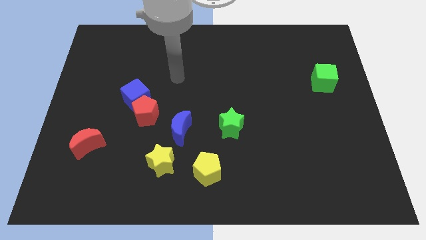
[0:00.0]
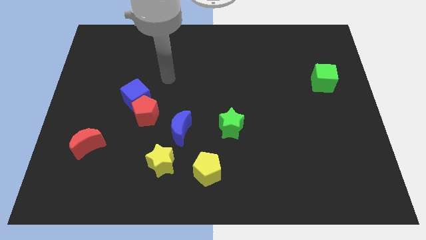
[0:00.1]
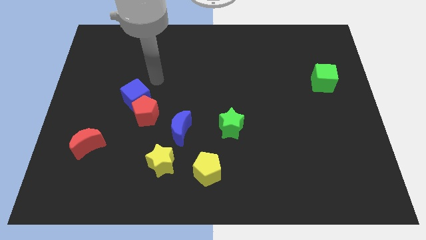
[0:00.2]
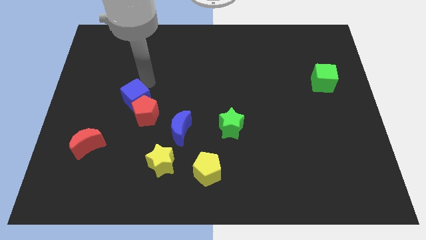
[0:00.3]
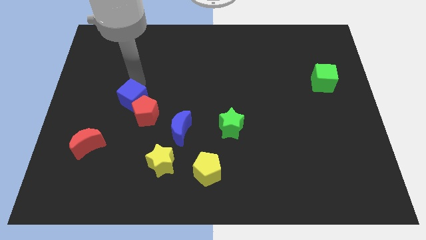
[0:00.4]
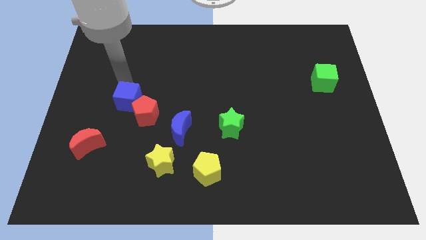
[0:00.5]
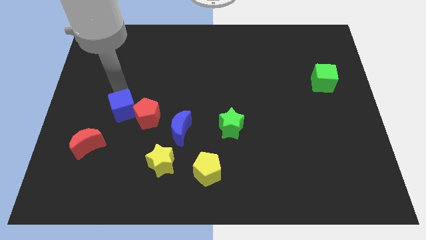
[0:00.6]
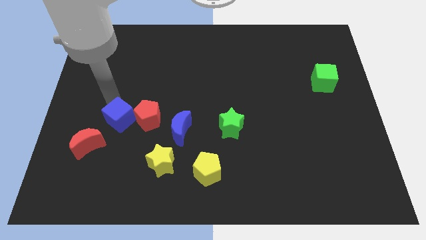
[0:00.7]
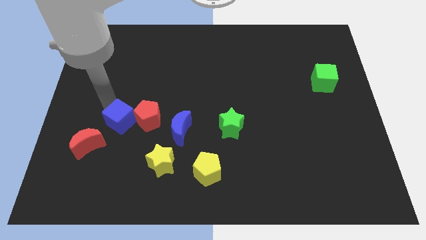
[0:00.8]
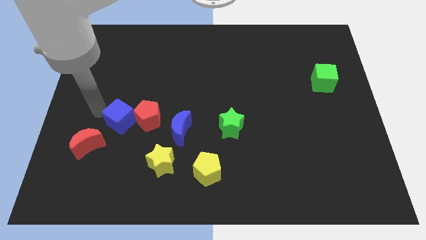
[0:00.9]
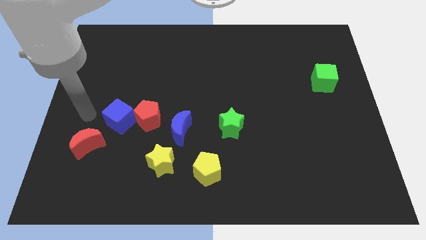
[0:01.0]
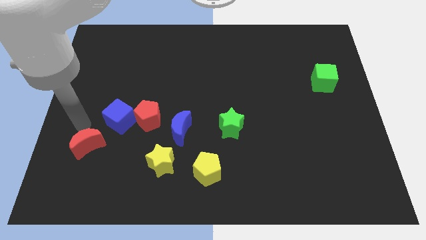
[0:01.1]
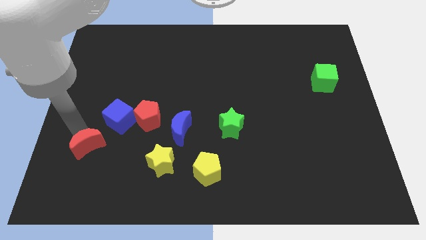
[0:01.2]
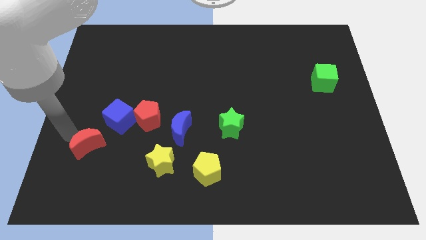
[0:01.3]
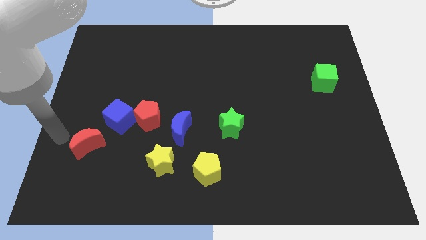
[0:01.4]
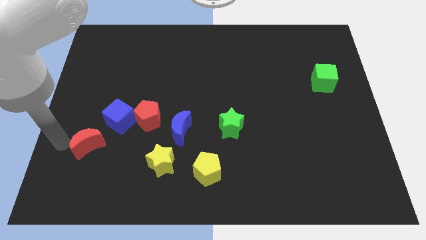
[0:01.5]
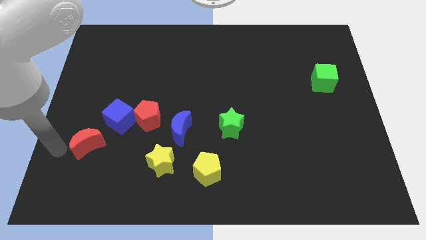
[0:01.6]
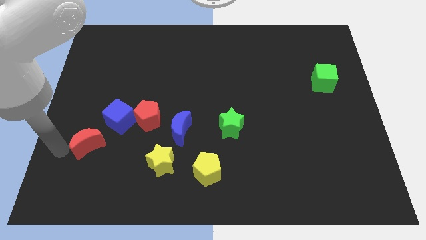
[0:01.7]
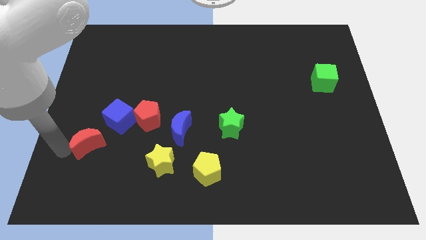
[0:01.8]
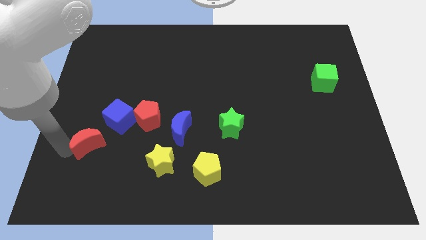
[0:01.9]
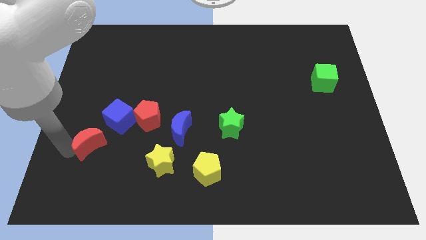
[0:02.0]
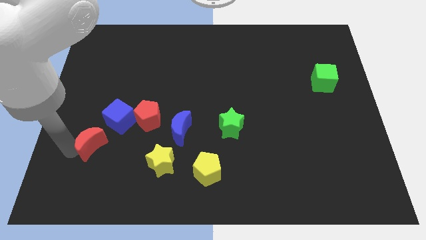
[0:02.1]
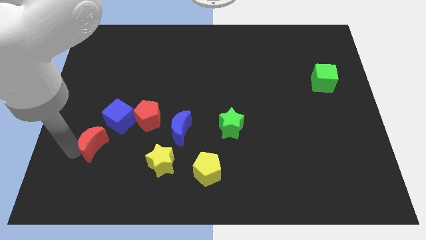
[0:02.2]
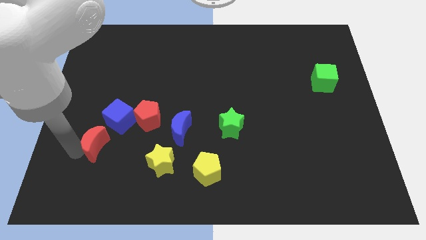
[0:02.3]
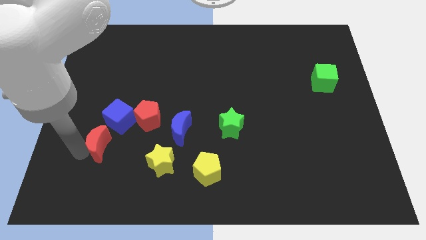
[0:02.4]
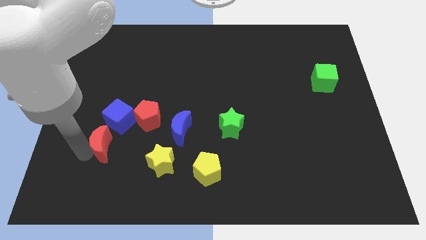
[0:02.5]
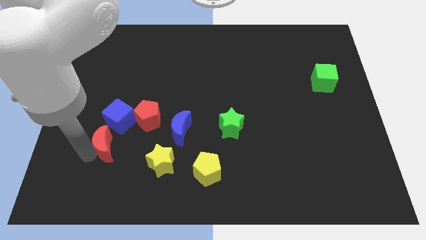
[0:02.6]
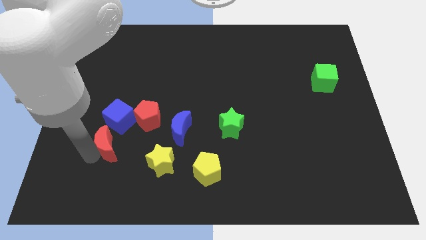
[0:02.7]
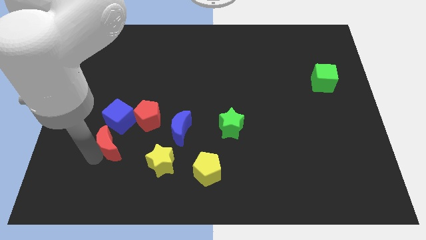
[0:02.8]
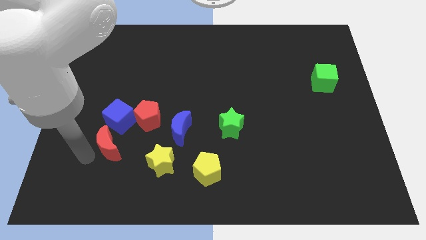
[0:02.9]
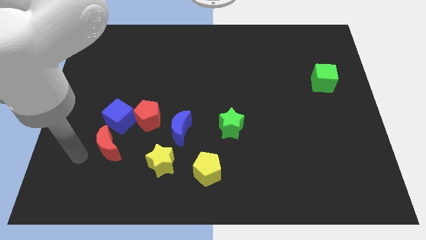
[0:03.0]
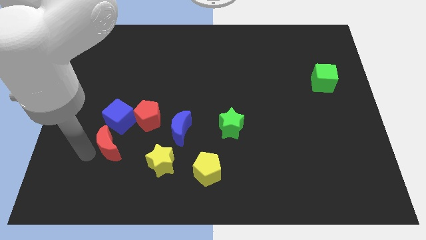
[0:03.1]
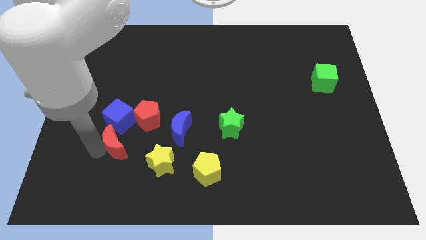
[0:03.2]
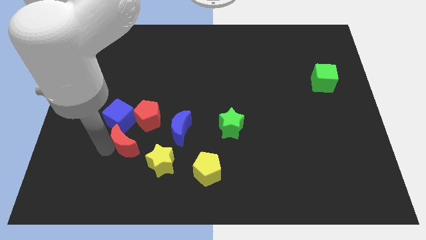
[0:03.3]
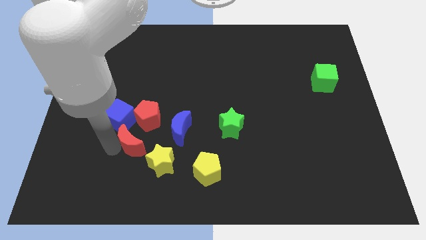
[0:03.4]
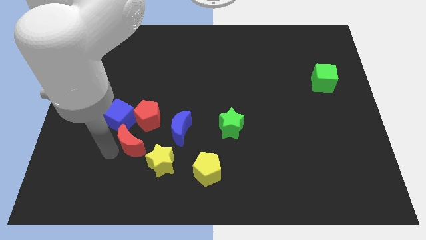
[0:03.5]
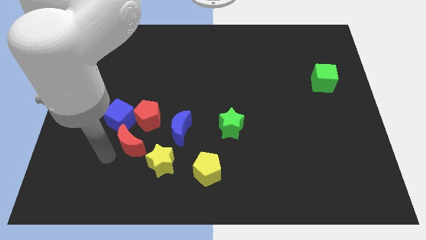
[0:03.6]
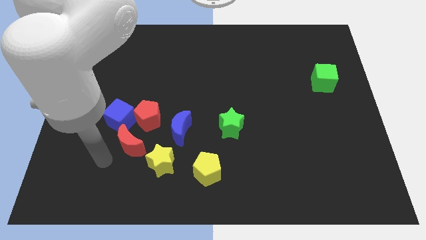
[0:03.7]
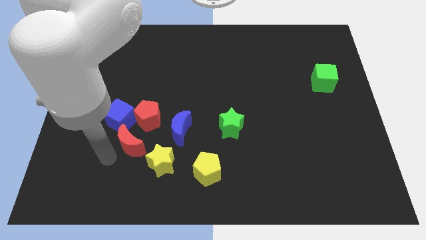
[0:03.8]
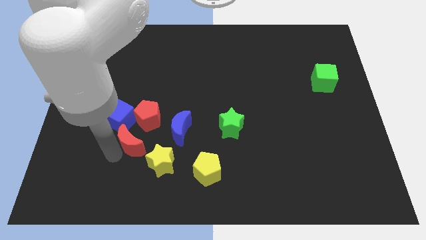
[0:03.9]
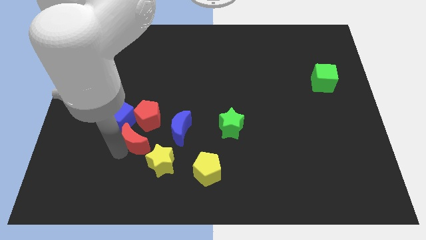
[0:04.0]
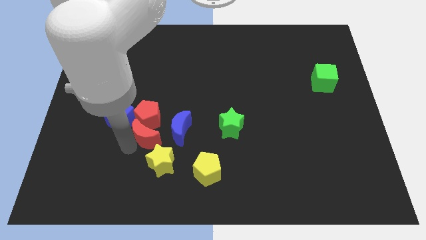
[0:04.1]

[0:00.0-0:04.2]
slide the red moon to the top of the yellow star

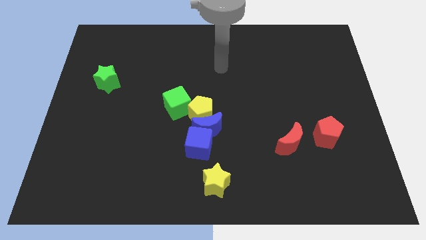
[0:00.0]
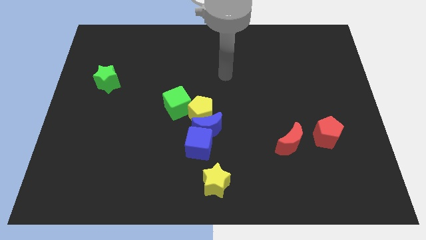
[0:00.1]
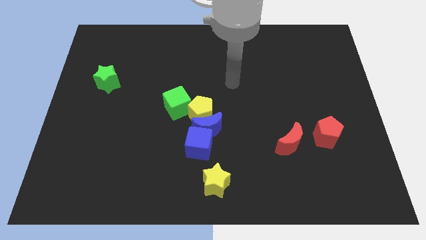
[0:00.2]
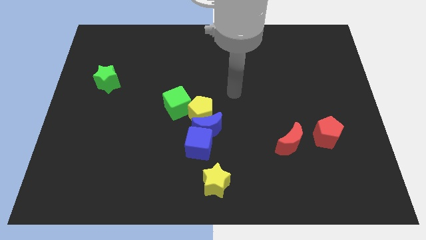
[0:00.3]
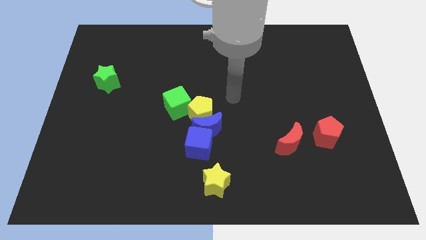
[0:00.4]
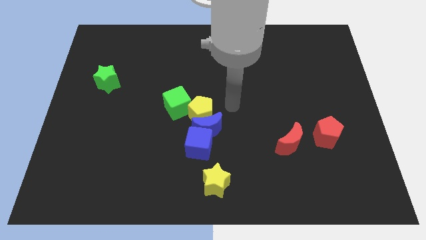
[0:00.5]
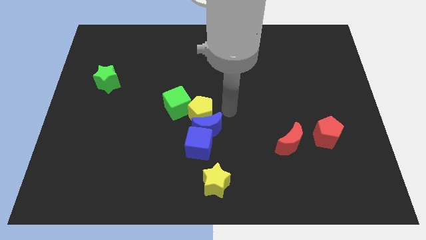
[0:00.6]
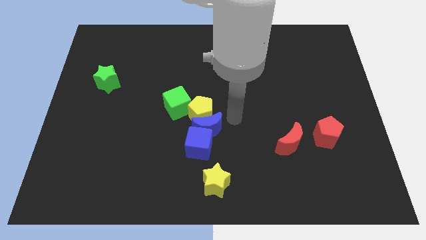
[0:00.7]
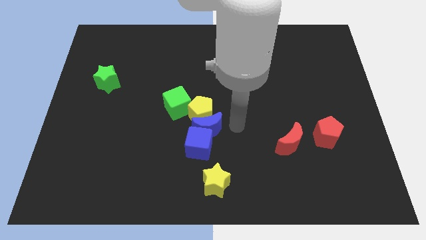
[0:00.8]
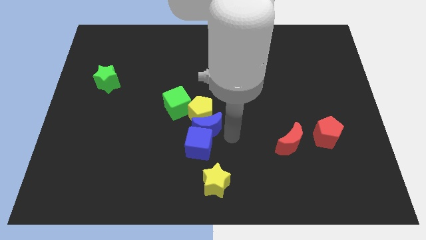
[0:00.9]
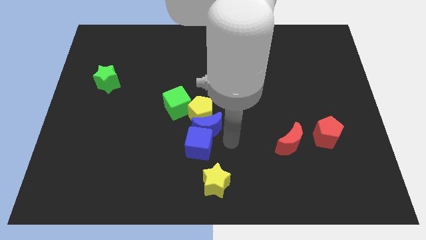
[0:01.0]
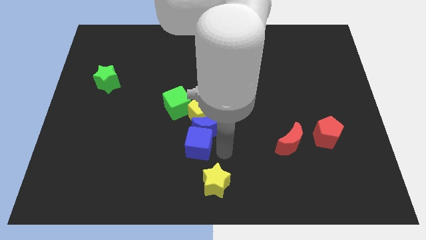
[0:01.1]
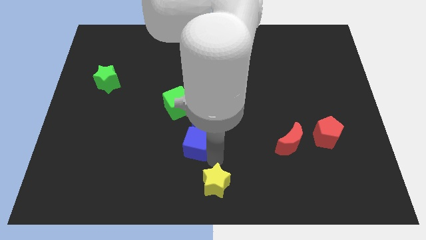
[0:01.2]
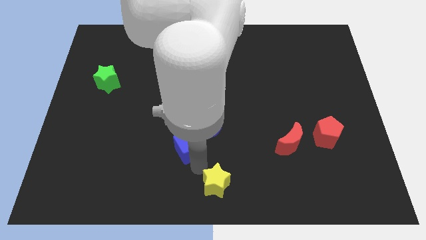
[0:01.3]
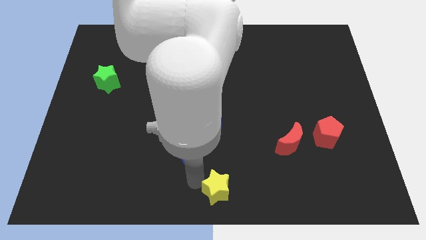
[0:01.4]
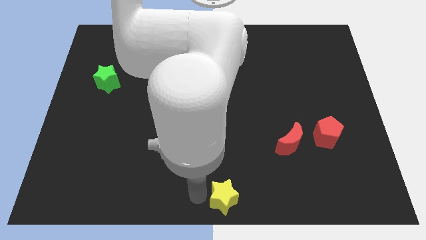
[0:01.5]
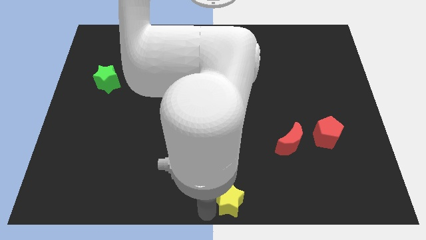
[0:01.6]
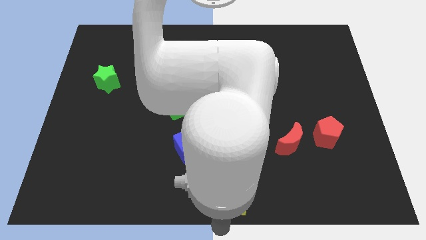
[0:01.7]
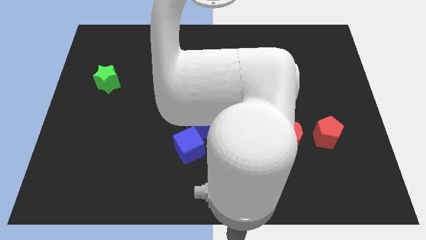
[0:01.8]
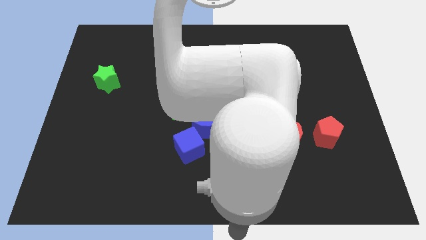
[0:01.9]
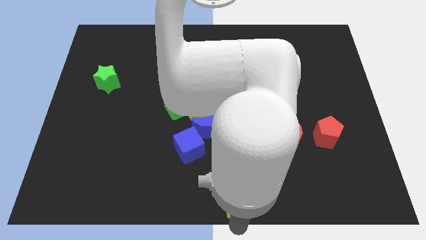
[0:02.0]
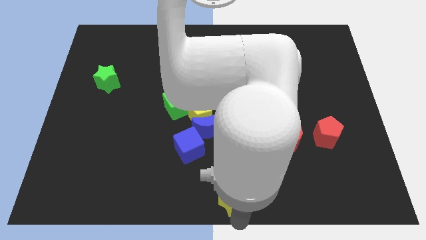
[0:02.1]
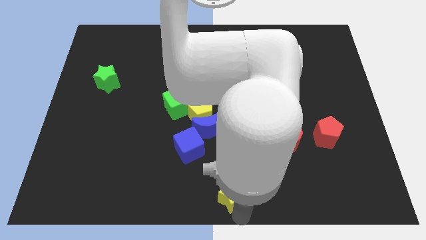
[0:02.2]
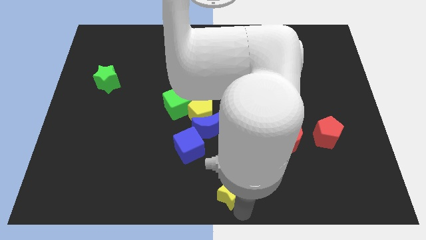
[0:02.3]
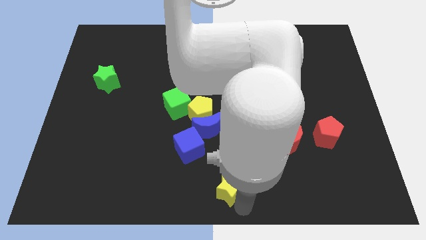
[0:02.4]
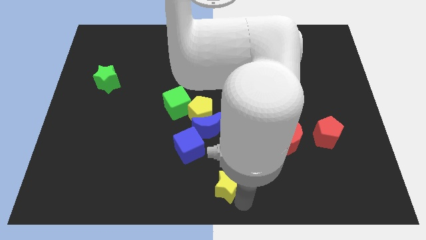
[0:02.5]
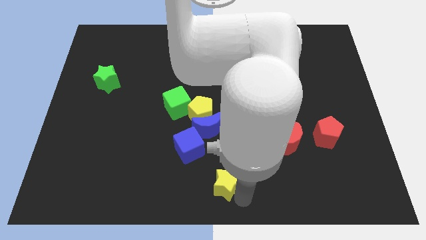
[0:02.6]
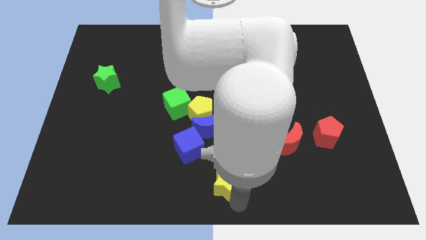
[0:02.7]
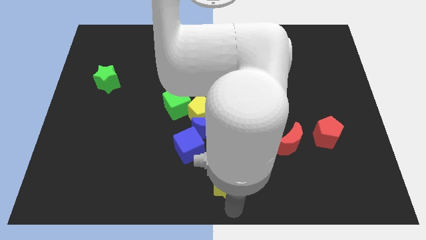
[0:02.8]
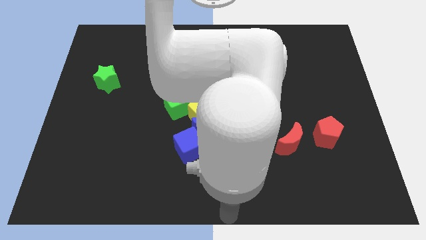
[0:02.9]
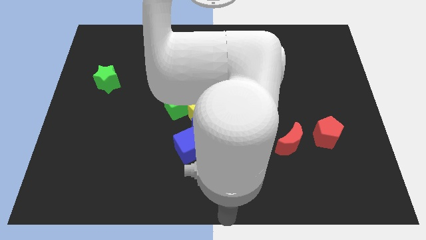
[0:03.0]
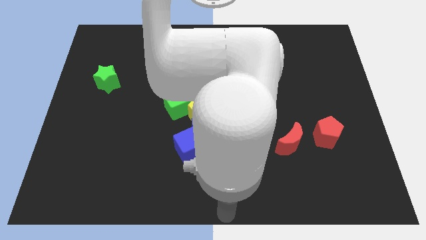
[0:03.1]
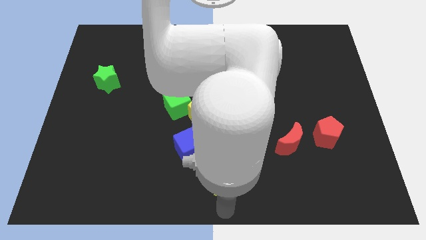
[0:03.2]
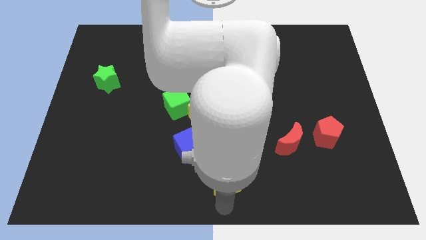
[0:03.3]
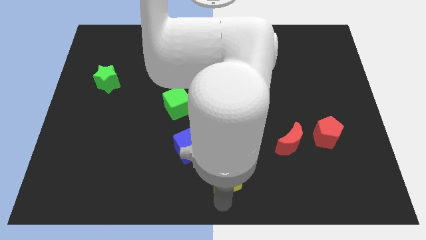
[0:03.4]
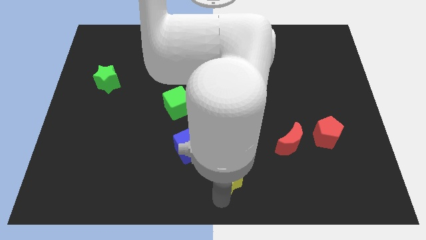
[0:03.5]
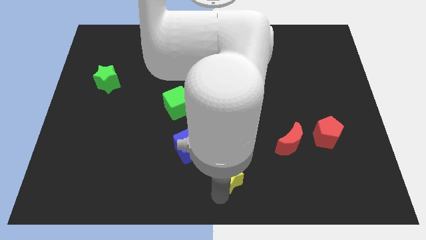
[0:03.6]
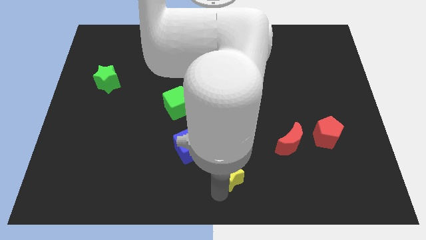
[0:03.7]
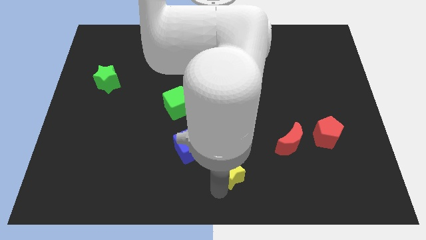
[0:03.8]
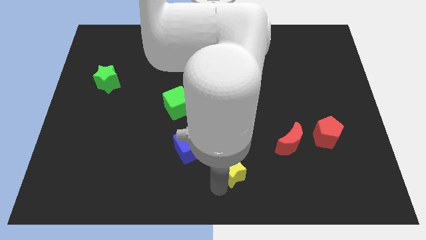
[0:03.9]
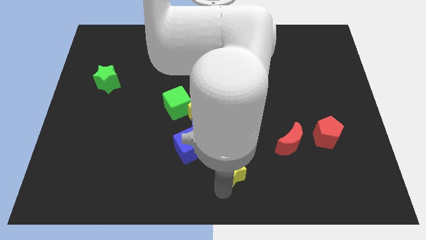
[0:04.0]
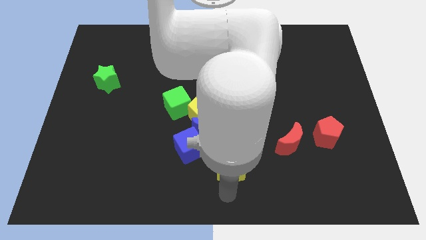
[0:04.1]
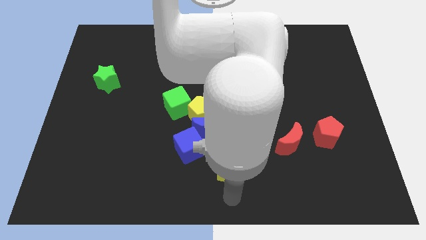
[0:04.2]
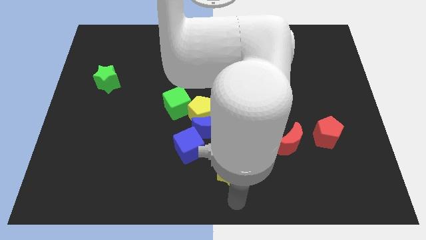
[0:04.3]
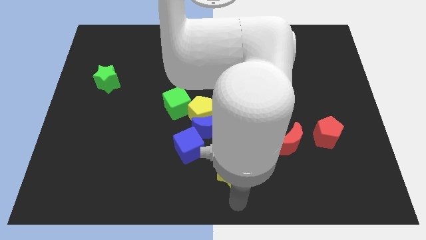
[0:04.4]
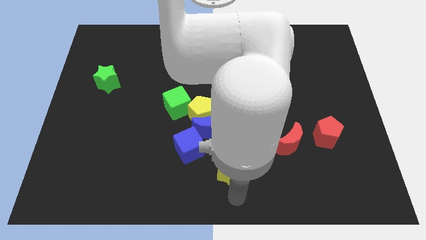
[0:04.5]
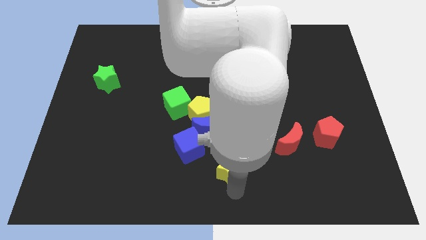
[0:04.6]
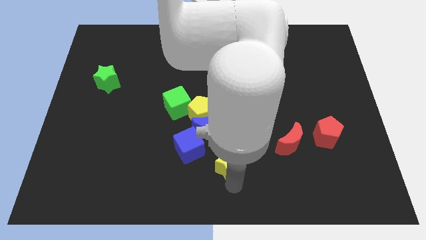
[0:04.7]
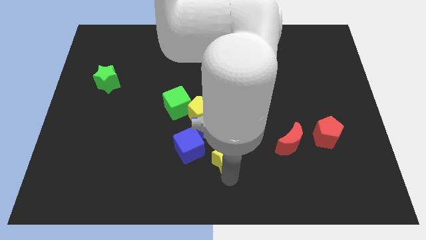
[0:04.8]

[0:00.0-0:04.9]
slide the yellow star just left of the red moon
